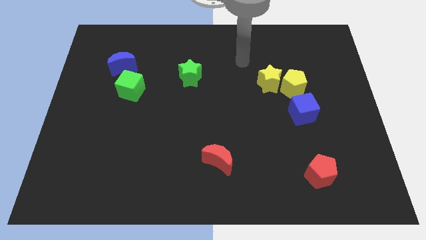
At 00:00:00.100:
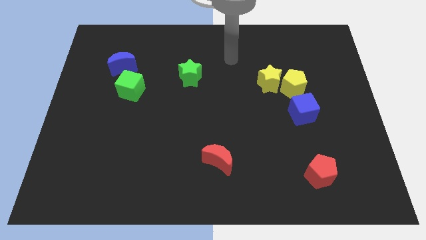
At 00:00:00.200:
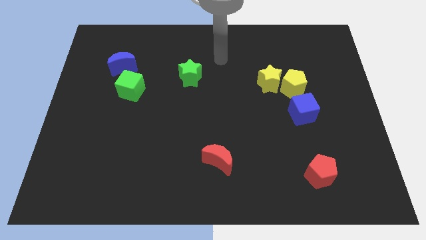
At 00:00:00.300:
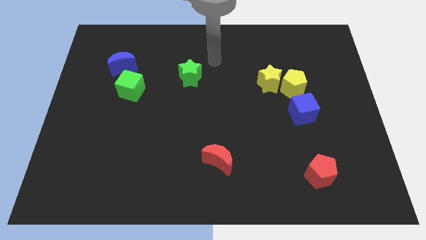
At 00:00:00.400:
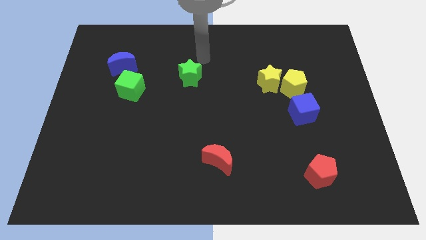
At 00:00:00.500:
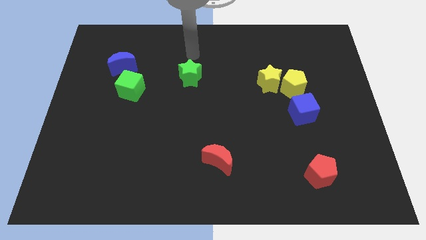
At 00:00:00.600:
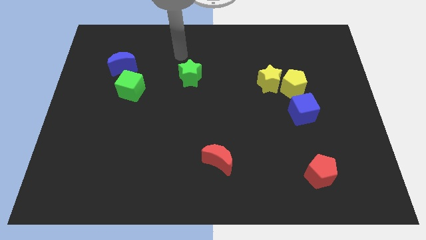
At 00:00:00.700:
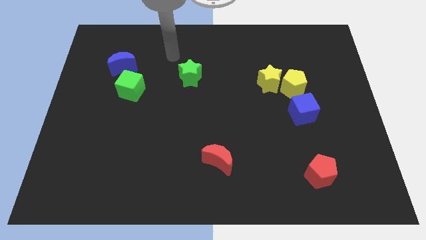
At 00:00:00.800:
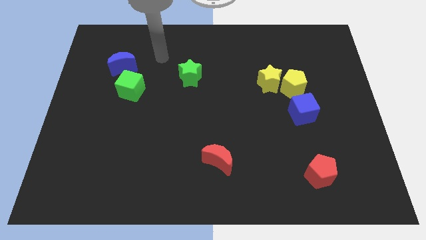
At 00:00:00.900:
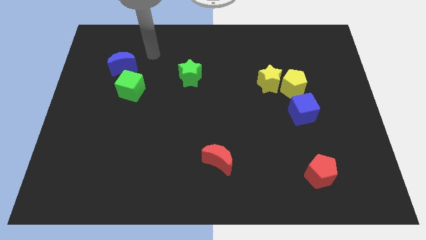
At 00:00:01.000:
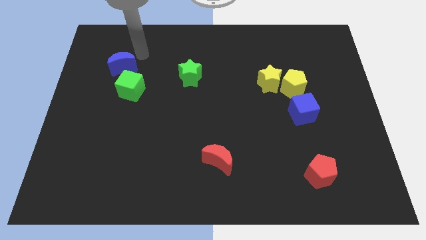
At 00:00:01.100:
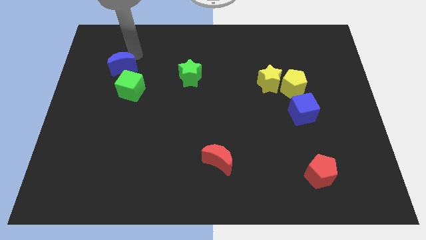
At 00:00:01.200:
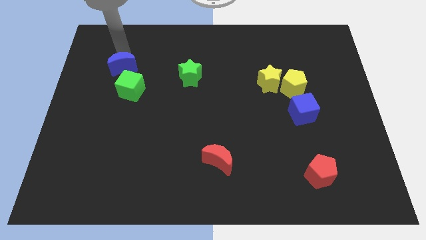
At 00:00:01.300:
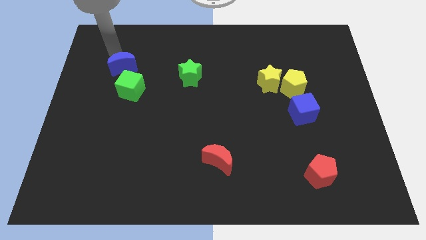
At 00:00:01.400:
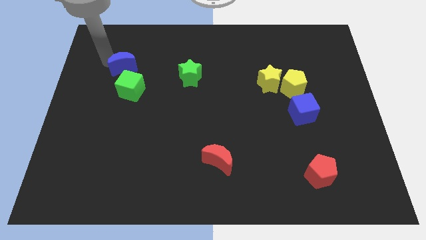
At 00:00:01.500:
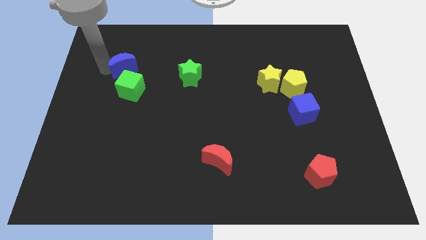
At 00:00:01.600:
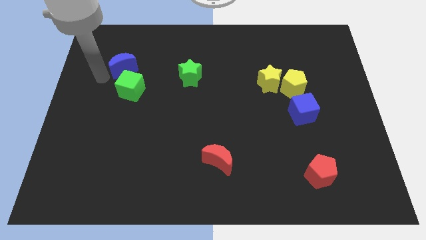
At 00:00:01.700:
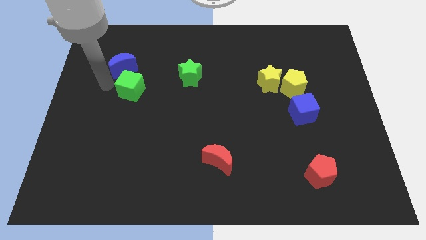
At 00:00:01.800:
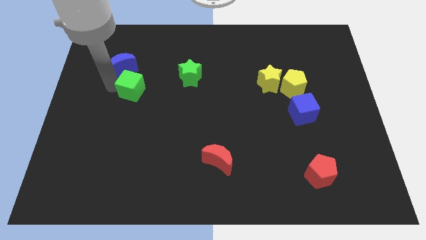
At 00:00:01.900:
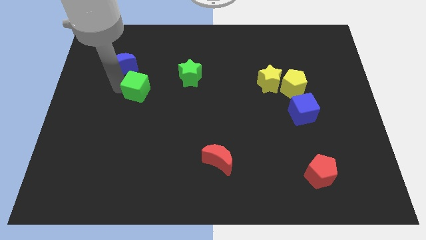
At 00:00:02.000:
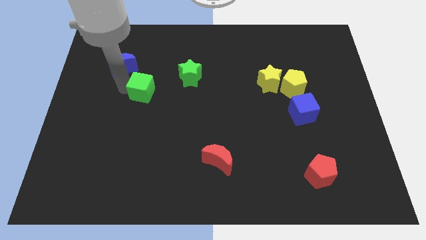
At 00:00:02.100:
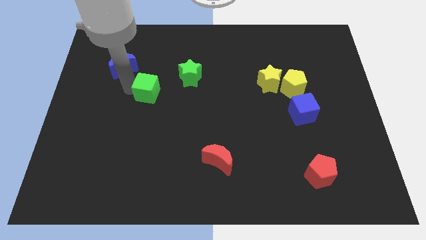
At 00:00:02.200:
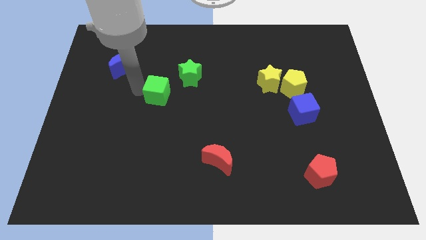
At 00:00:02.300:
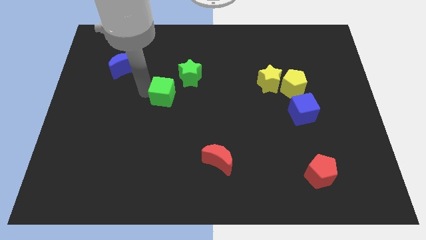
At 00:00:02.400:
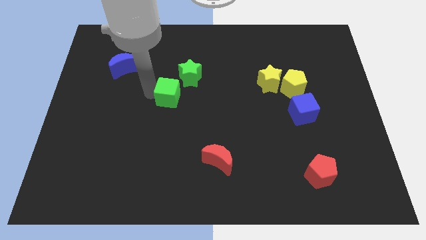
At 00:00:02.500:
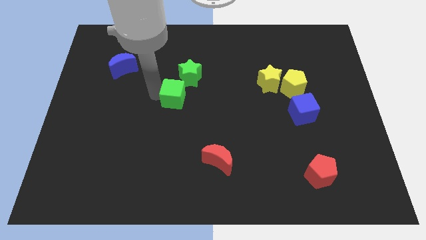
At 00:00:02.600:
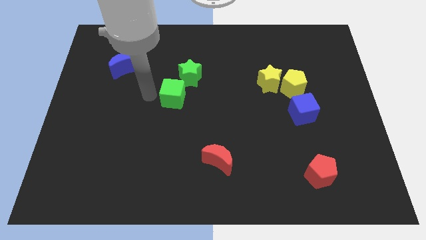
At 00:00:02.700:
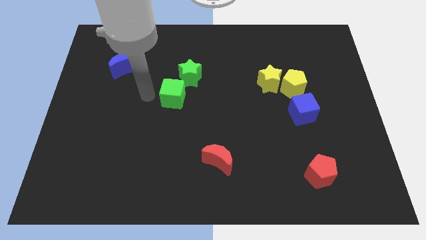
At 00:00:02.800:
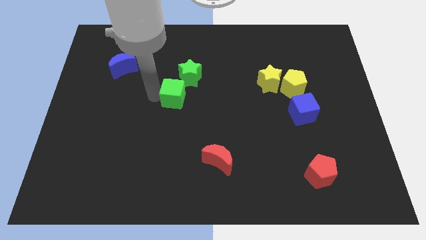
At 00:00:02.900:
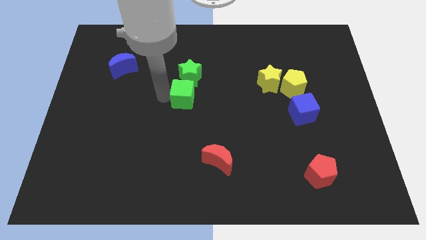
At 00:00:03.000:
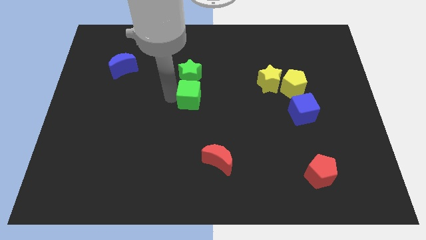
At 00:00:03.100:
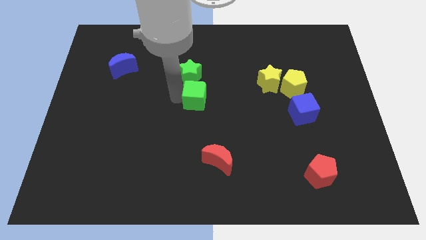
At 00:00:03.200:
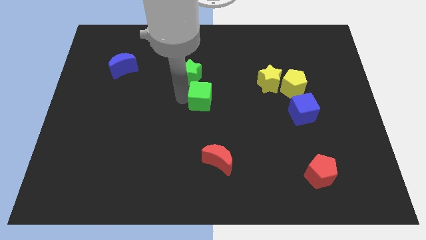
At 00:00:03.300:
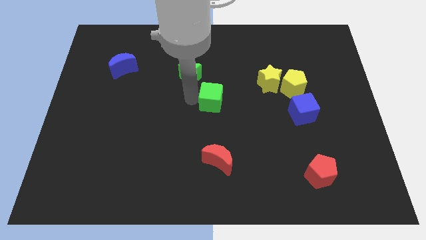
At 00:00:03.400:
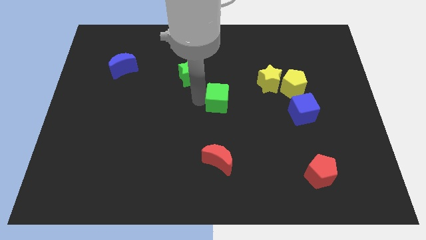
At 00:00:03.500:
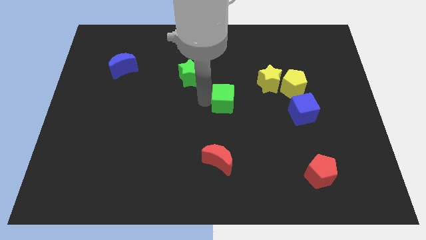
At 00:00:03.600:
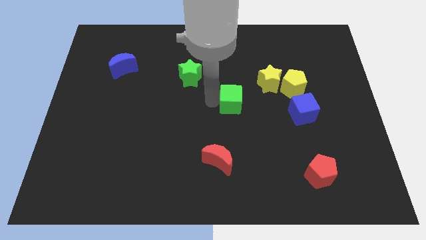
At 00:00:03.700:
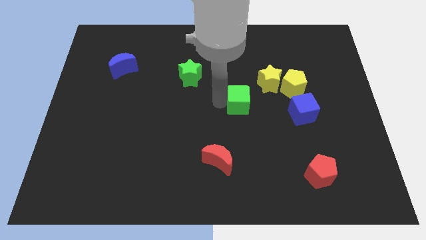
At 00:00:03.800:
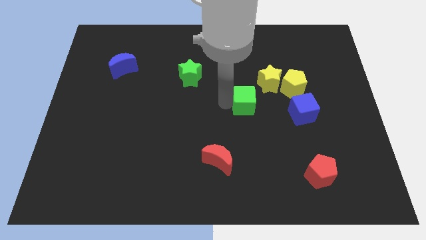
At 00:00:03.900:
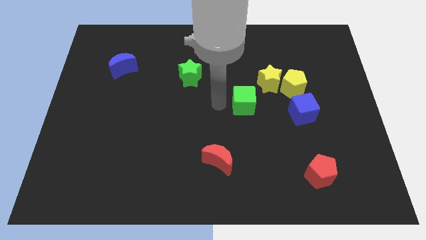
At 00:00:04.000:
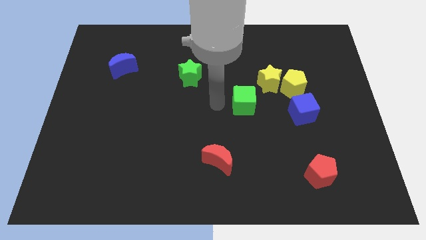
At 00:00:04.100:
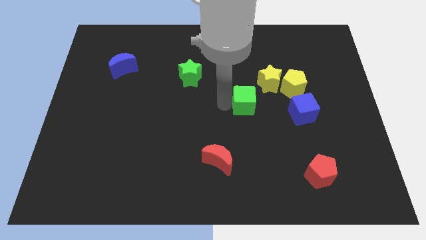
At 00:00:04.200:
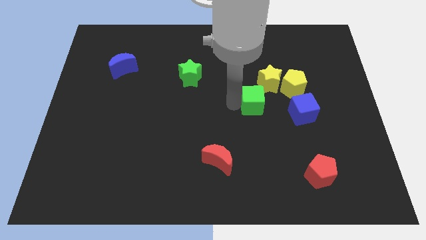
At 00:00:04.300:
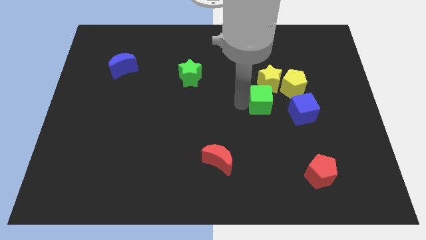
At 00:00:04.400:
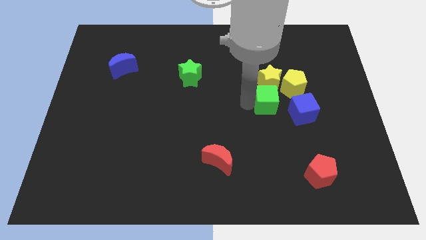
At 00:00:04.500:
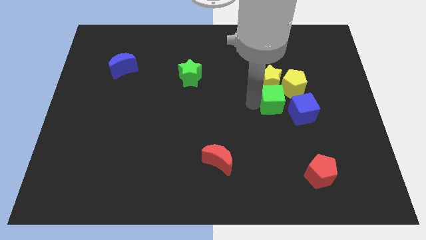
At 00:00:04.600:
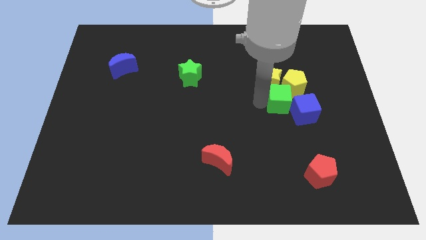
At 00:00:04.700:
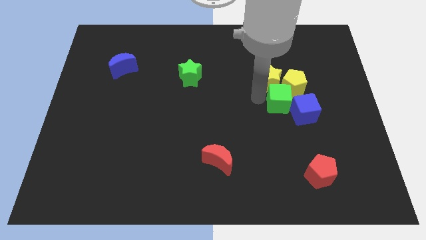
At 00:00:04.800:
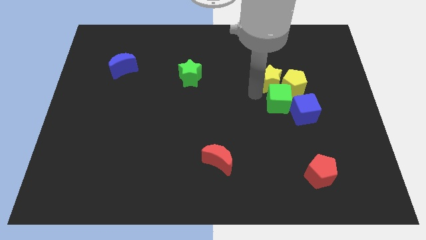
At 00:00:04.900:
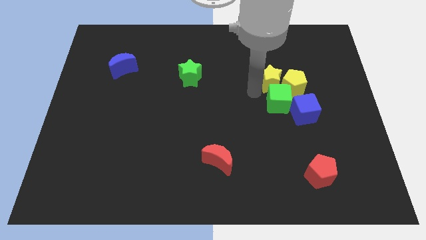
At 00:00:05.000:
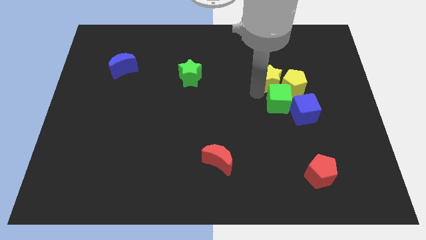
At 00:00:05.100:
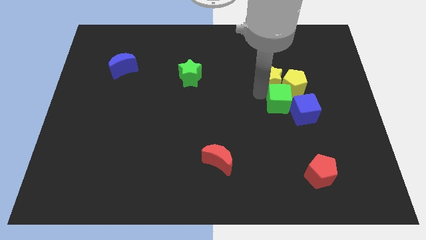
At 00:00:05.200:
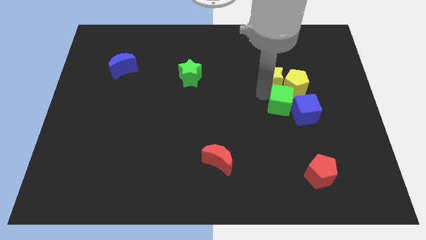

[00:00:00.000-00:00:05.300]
push the green cube towards the blue cube

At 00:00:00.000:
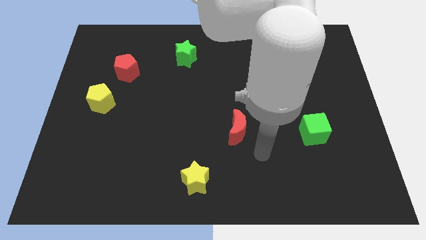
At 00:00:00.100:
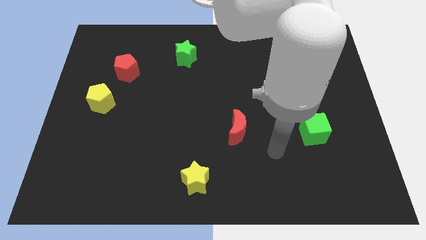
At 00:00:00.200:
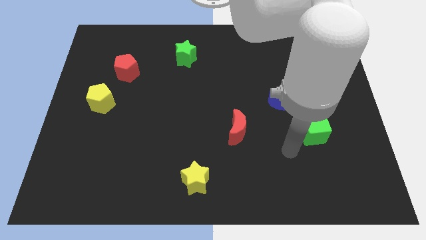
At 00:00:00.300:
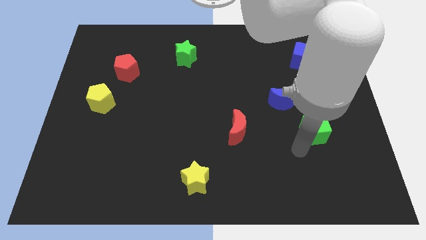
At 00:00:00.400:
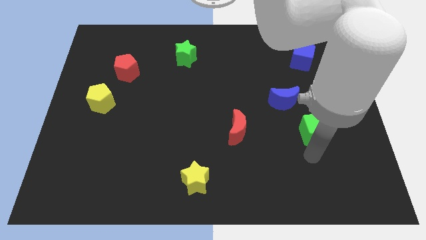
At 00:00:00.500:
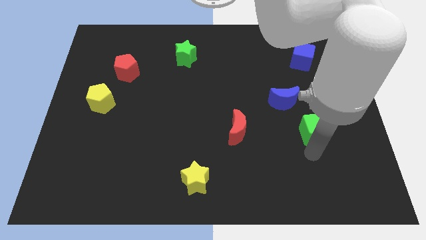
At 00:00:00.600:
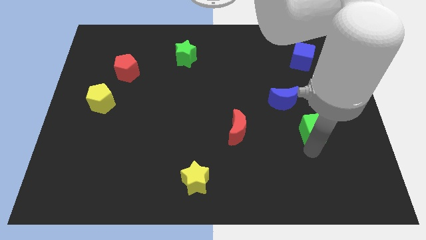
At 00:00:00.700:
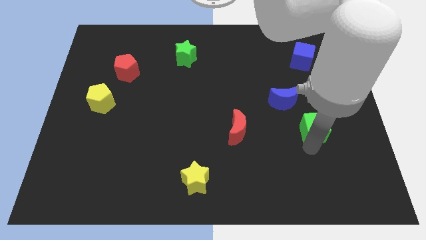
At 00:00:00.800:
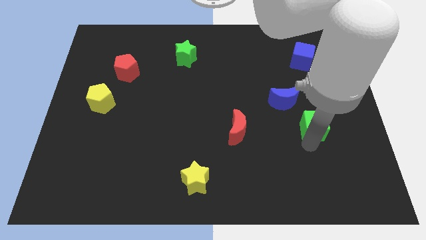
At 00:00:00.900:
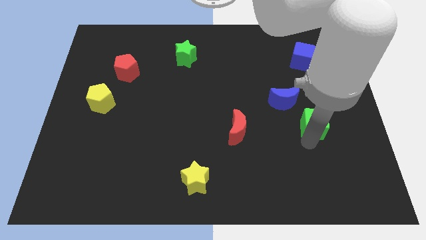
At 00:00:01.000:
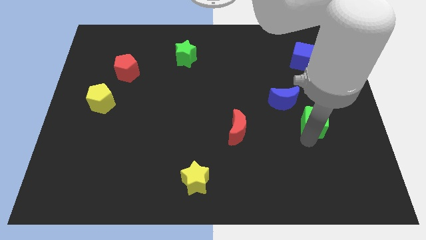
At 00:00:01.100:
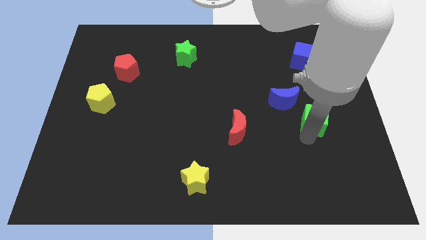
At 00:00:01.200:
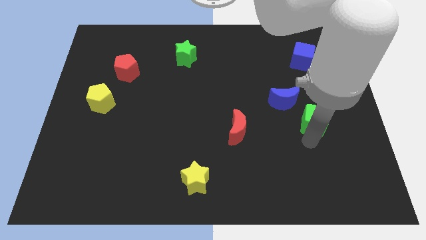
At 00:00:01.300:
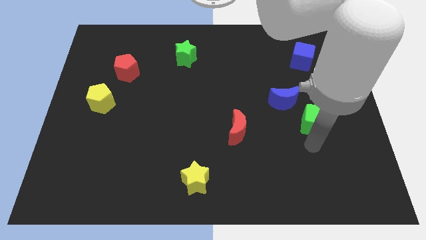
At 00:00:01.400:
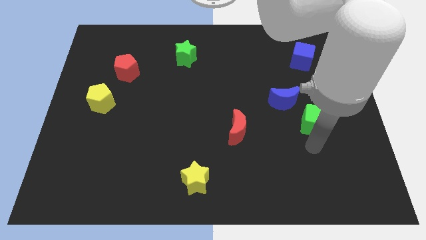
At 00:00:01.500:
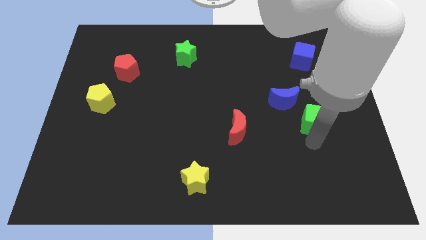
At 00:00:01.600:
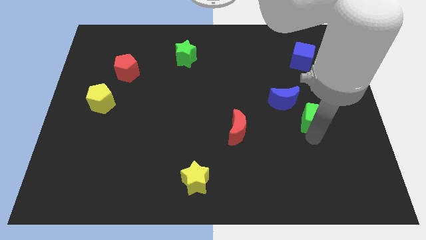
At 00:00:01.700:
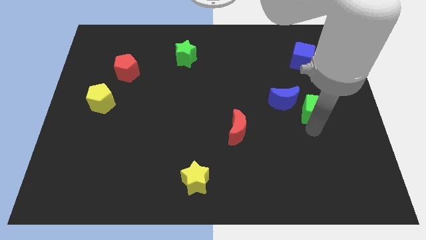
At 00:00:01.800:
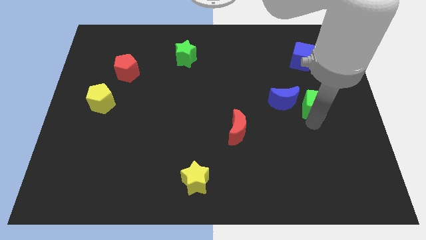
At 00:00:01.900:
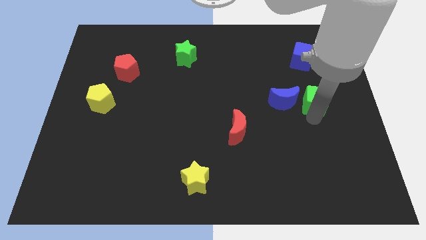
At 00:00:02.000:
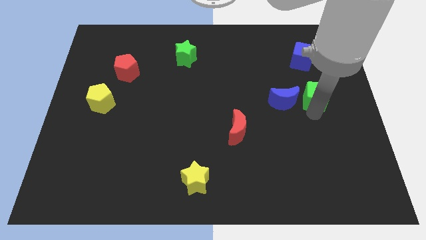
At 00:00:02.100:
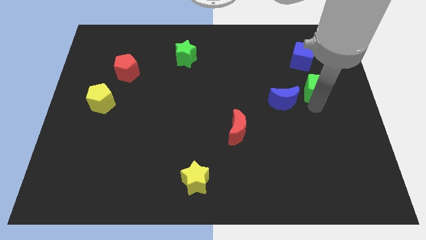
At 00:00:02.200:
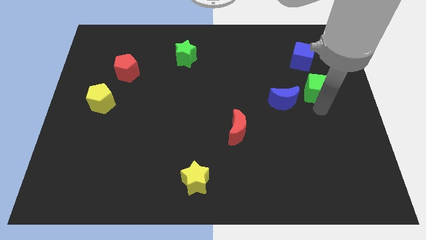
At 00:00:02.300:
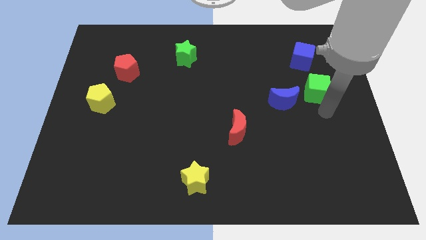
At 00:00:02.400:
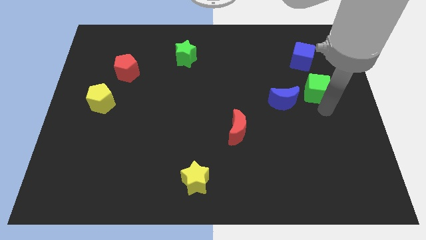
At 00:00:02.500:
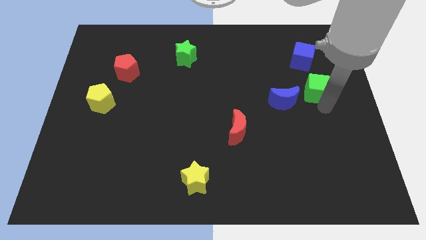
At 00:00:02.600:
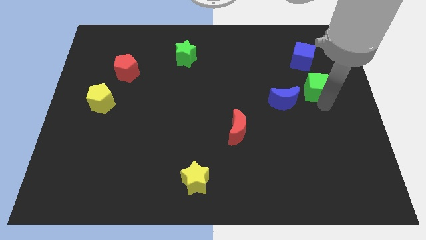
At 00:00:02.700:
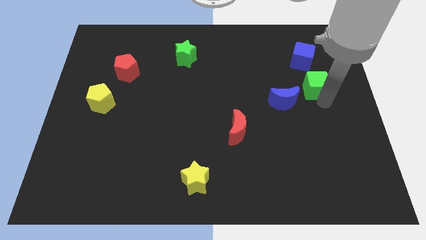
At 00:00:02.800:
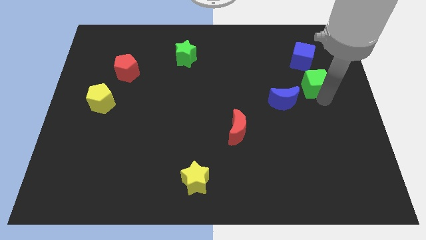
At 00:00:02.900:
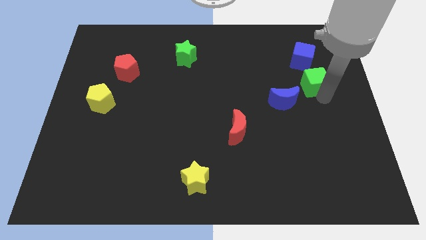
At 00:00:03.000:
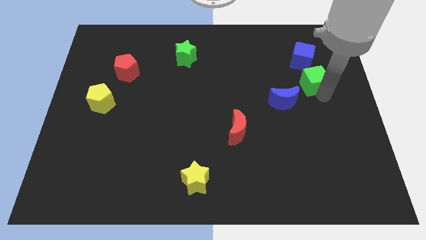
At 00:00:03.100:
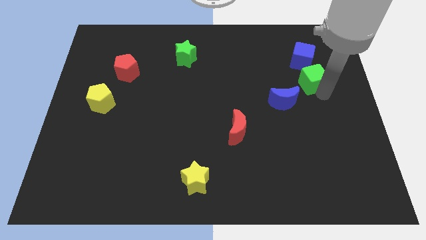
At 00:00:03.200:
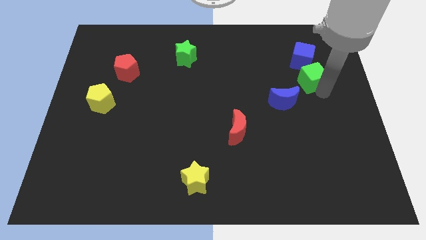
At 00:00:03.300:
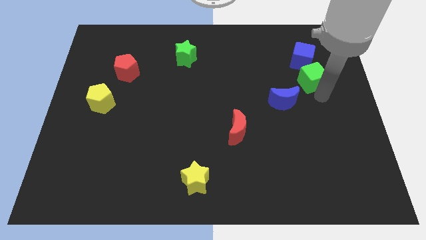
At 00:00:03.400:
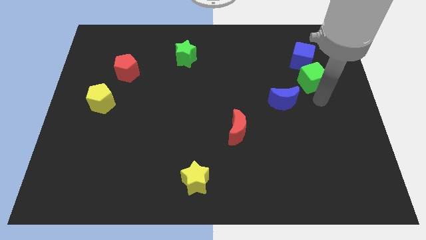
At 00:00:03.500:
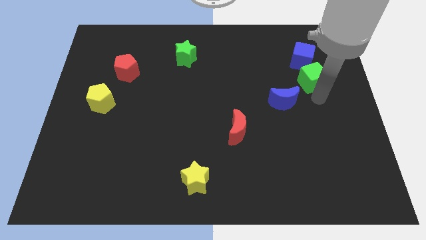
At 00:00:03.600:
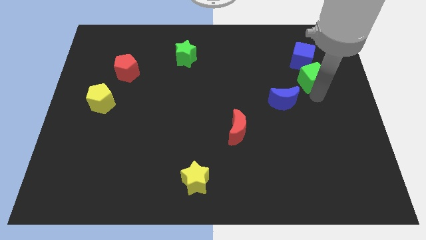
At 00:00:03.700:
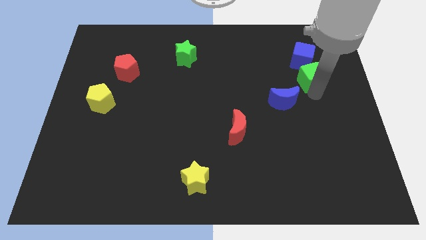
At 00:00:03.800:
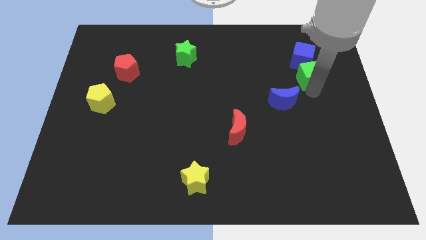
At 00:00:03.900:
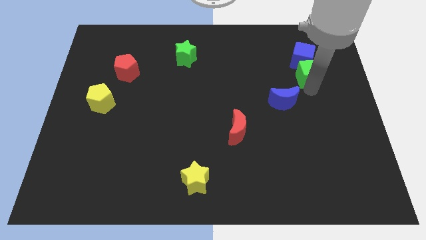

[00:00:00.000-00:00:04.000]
put the green cube next to the blue cube
